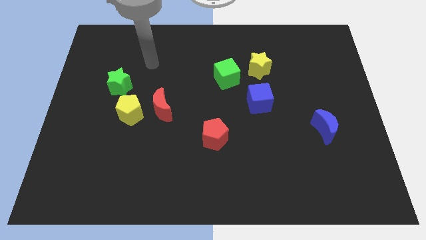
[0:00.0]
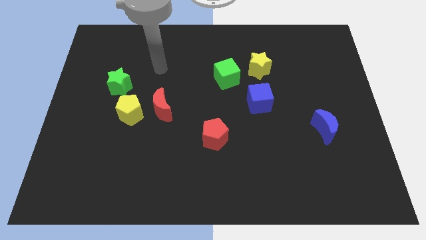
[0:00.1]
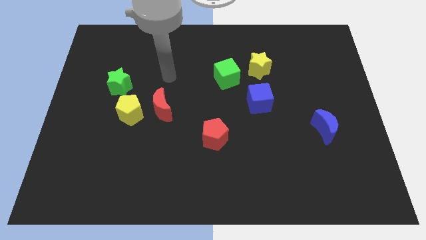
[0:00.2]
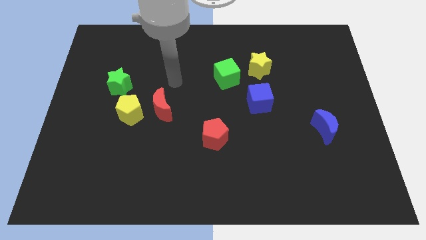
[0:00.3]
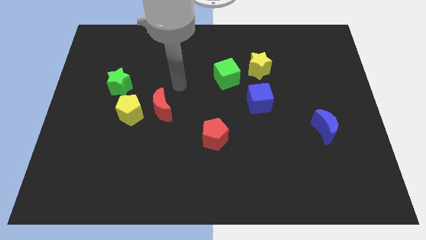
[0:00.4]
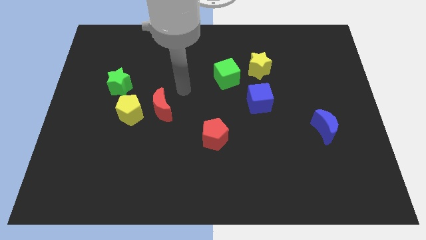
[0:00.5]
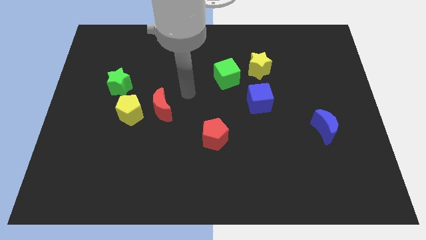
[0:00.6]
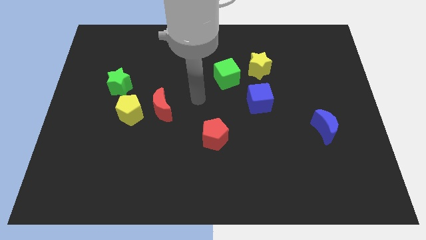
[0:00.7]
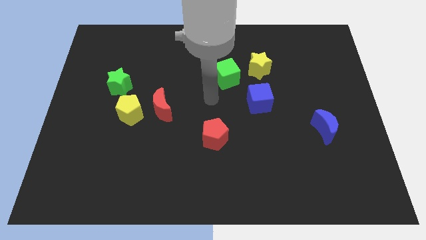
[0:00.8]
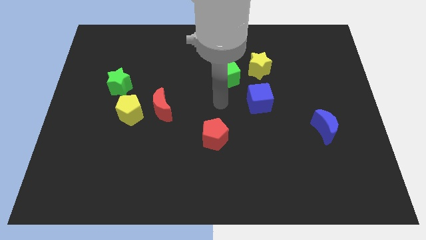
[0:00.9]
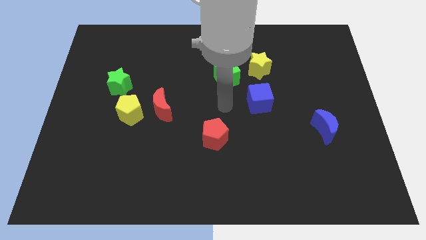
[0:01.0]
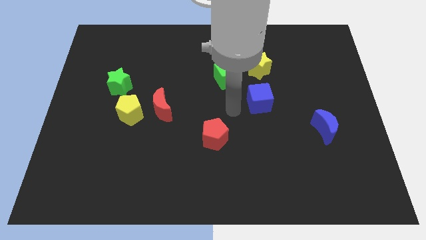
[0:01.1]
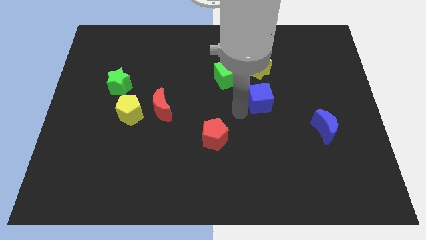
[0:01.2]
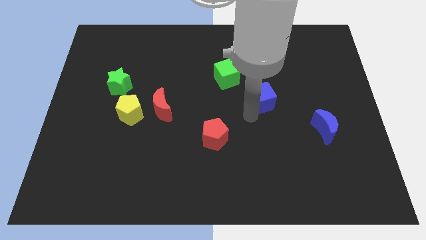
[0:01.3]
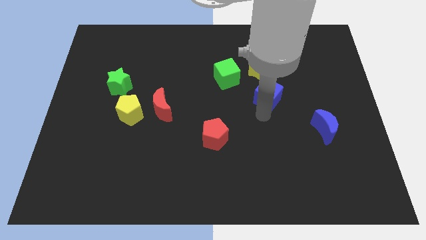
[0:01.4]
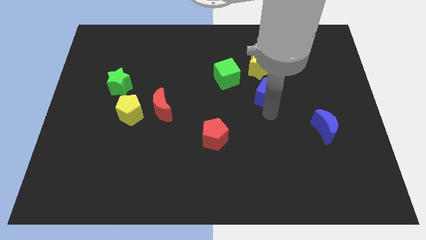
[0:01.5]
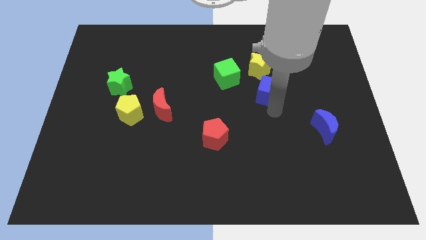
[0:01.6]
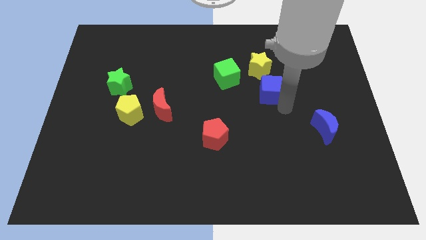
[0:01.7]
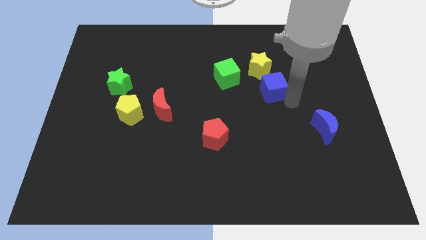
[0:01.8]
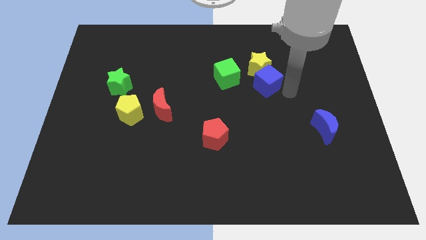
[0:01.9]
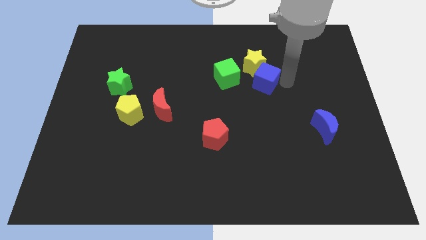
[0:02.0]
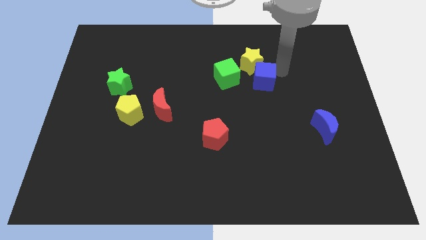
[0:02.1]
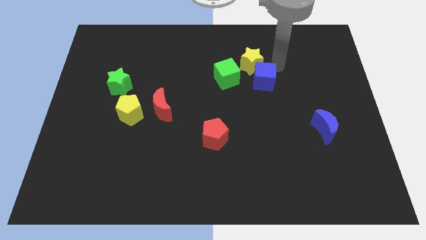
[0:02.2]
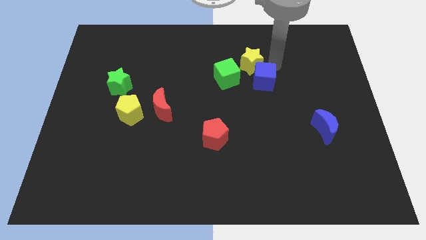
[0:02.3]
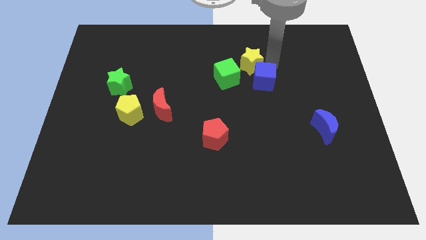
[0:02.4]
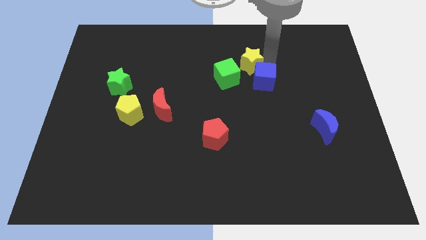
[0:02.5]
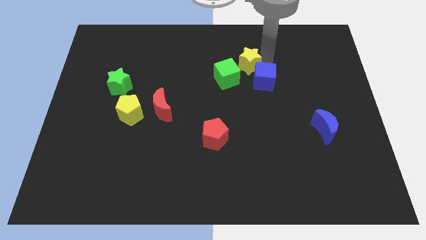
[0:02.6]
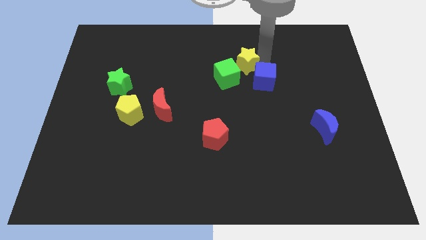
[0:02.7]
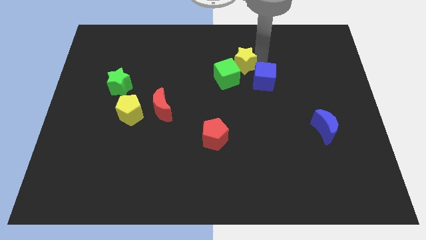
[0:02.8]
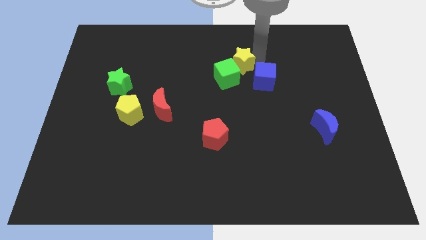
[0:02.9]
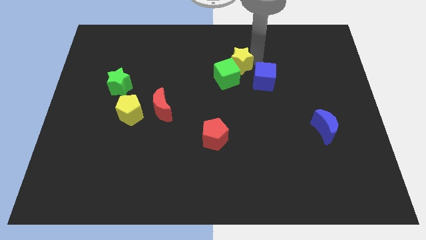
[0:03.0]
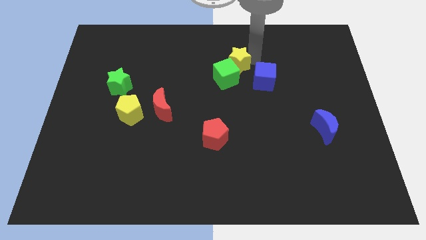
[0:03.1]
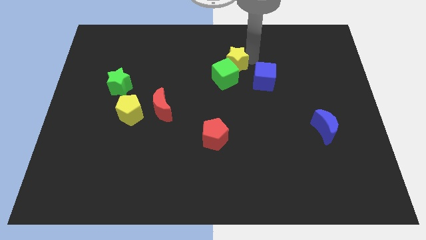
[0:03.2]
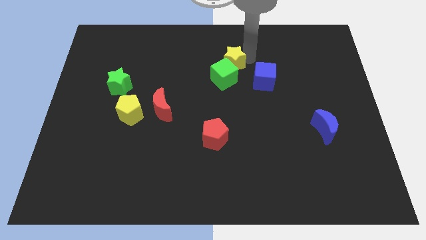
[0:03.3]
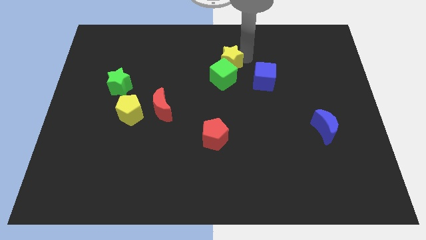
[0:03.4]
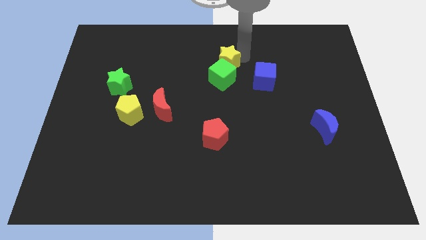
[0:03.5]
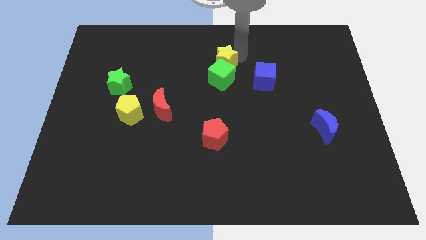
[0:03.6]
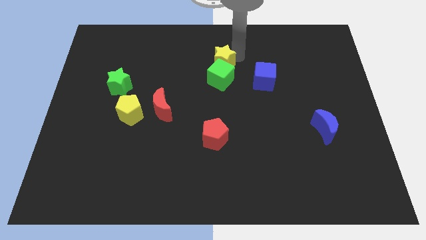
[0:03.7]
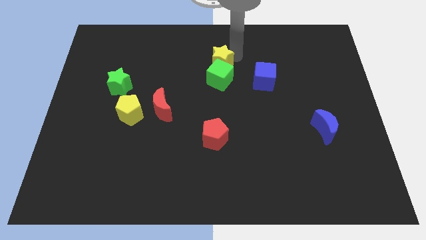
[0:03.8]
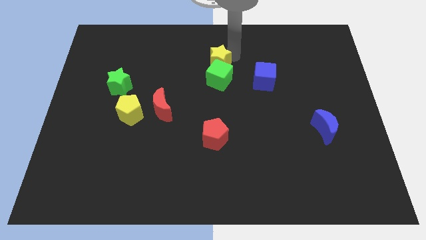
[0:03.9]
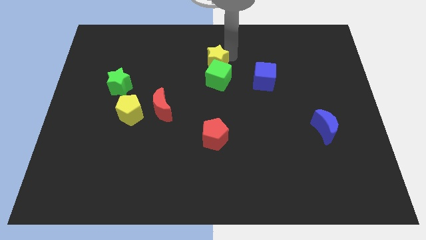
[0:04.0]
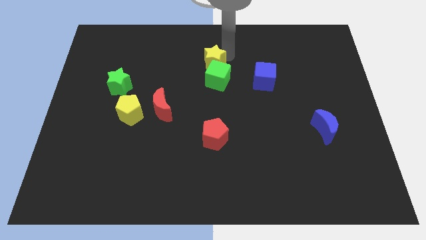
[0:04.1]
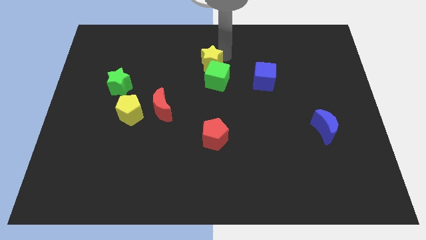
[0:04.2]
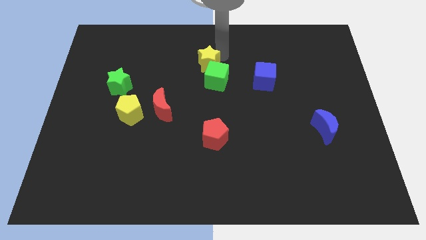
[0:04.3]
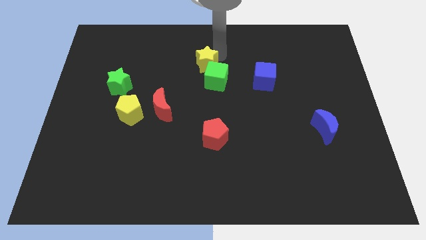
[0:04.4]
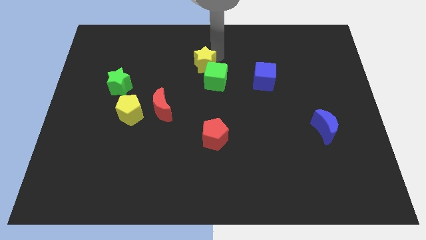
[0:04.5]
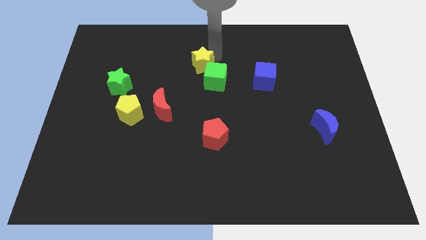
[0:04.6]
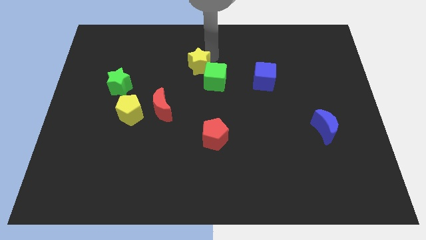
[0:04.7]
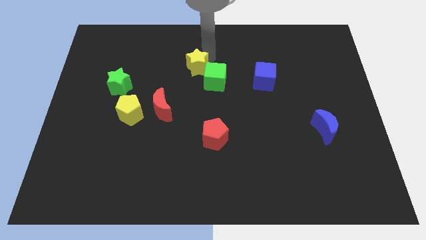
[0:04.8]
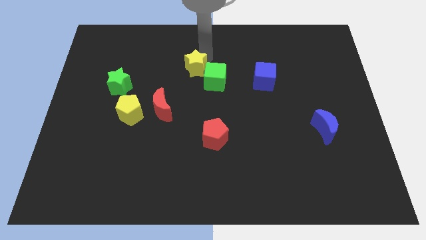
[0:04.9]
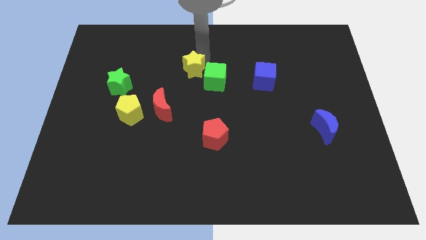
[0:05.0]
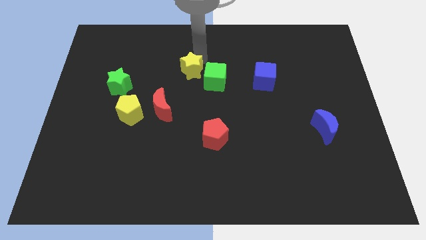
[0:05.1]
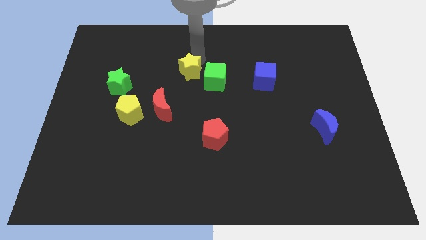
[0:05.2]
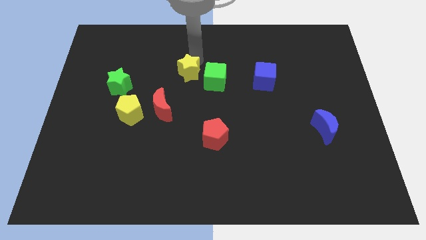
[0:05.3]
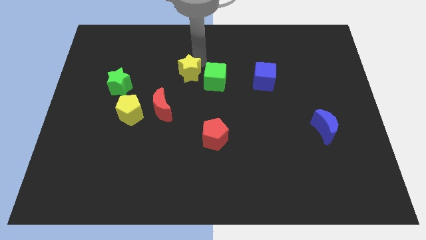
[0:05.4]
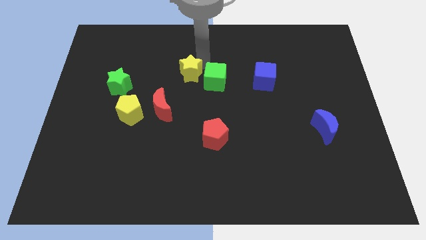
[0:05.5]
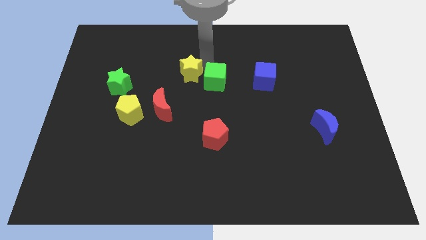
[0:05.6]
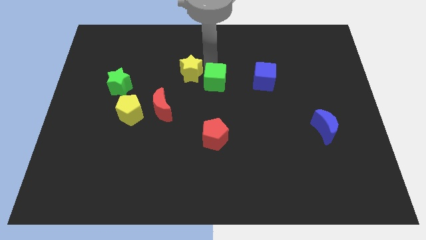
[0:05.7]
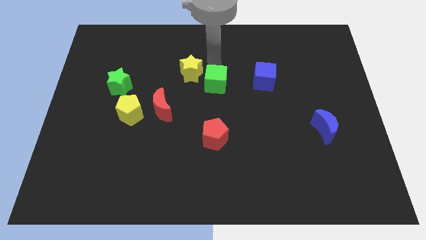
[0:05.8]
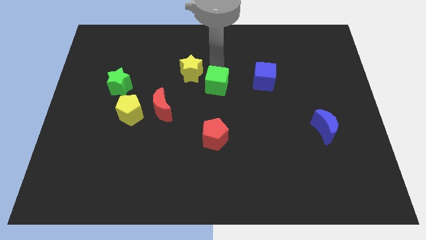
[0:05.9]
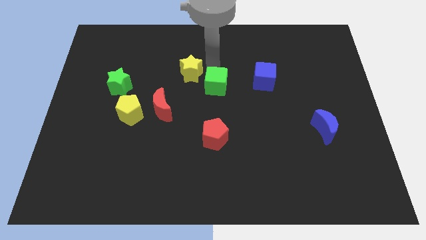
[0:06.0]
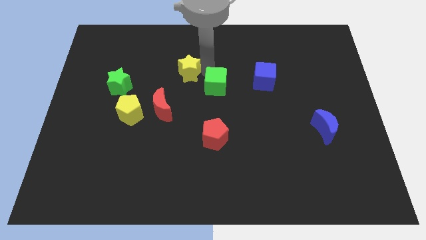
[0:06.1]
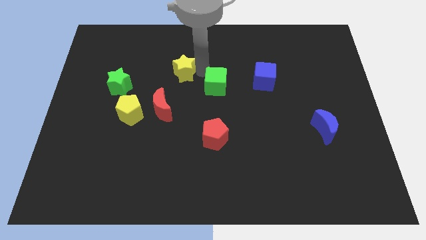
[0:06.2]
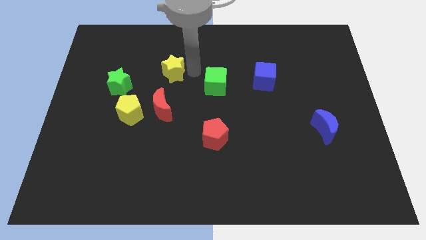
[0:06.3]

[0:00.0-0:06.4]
move the yellow star to the left

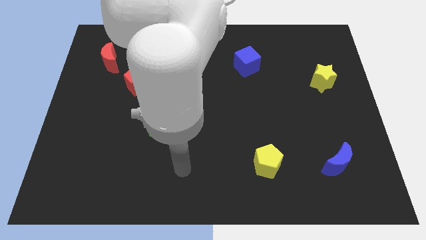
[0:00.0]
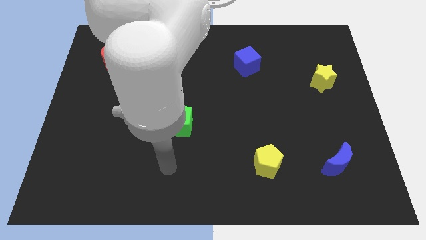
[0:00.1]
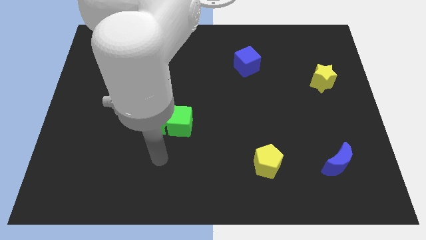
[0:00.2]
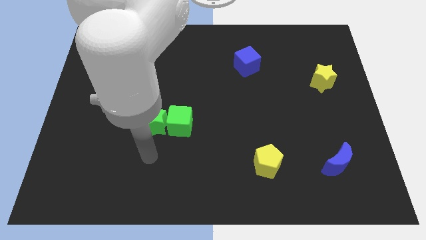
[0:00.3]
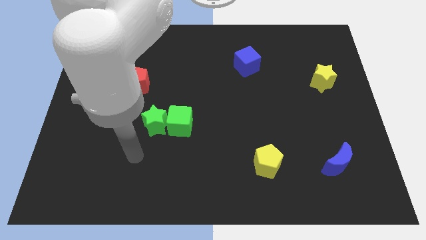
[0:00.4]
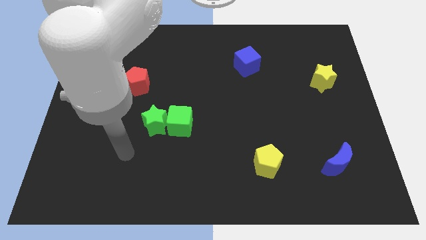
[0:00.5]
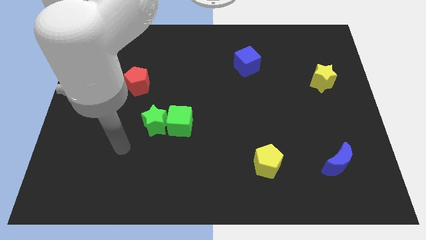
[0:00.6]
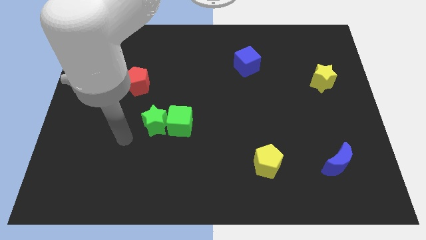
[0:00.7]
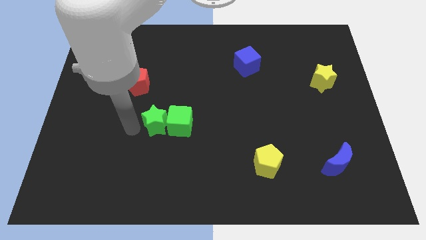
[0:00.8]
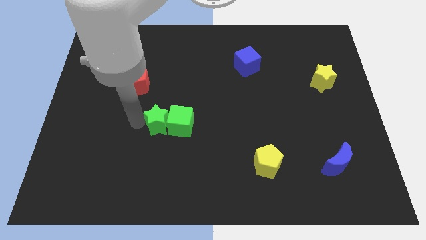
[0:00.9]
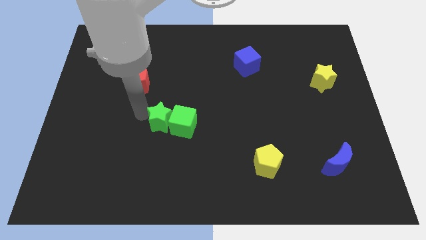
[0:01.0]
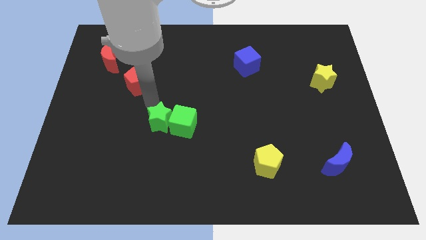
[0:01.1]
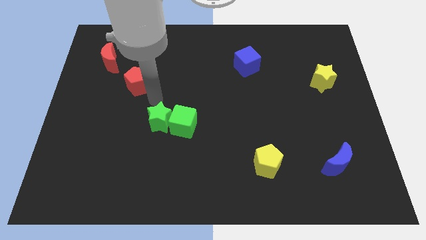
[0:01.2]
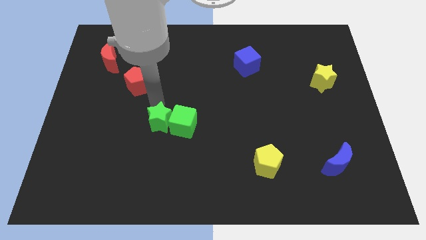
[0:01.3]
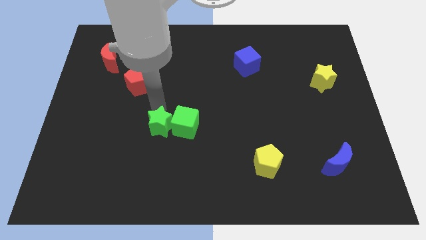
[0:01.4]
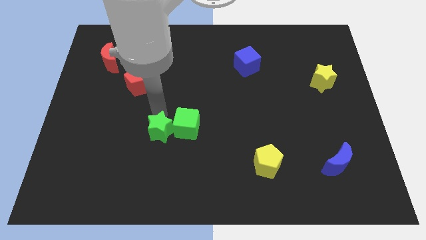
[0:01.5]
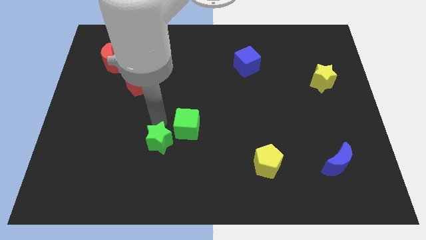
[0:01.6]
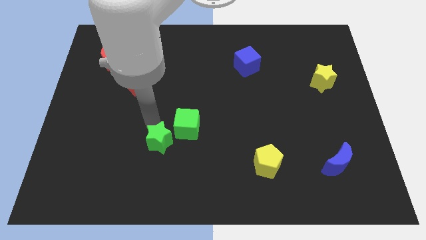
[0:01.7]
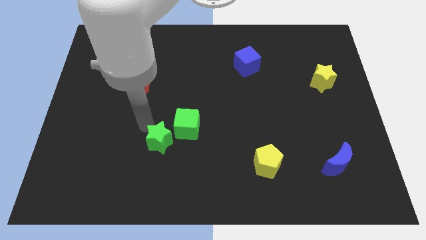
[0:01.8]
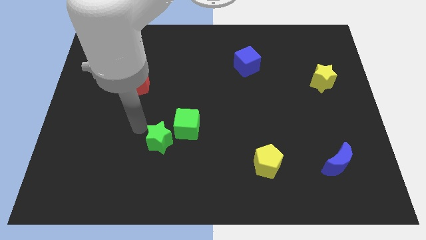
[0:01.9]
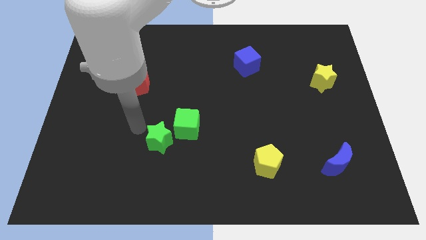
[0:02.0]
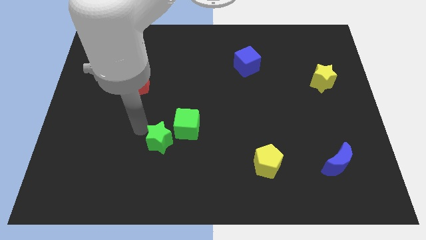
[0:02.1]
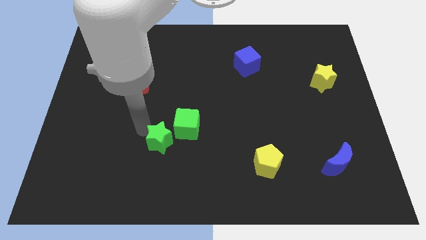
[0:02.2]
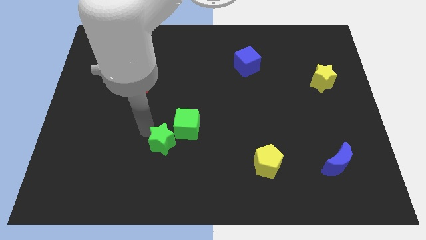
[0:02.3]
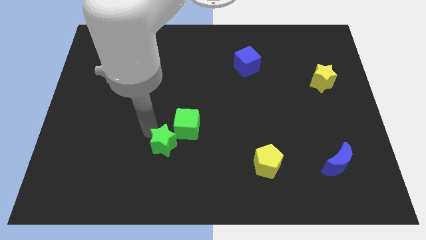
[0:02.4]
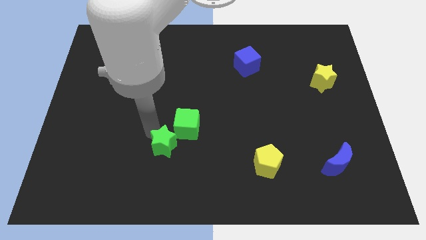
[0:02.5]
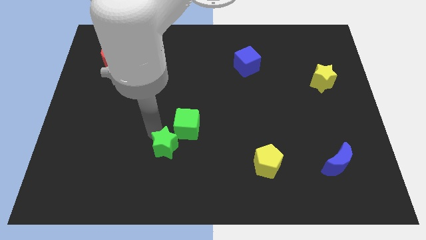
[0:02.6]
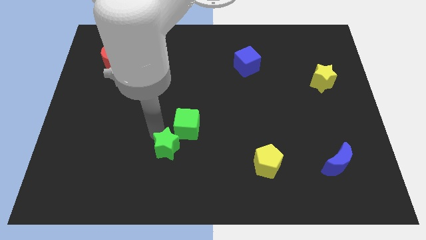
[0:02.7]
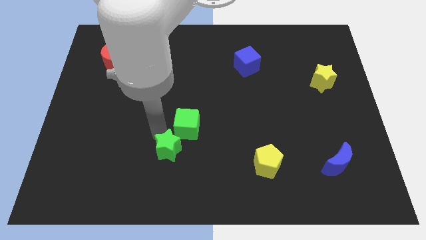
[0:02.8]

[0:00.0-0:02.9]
move the green star a bit diagonally down and to the right
